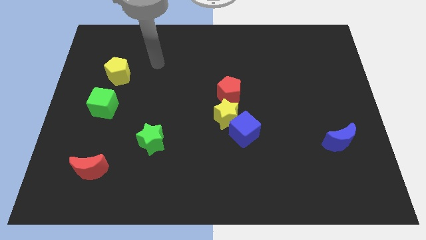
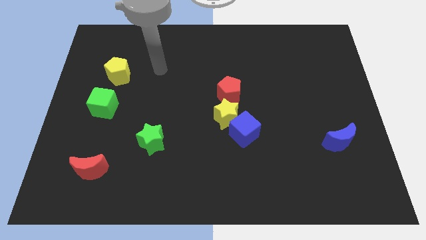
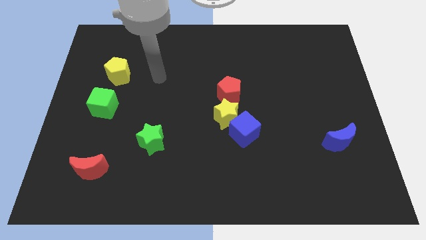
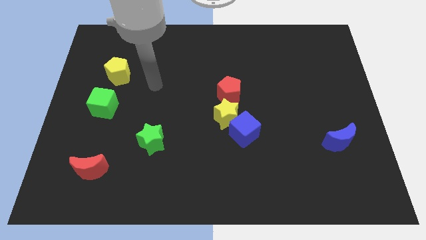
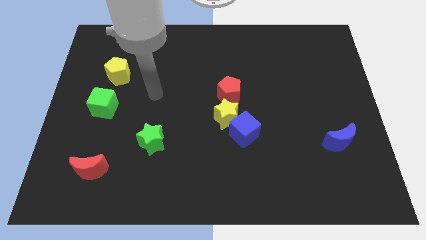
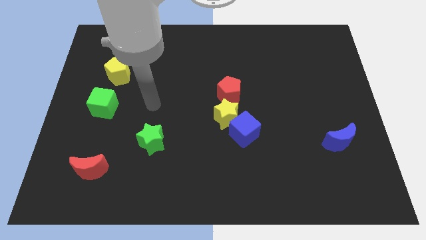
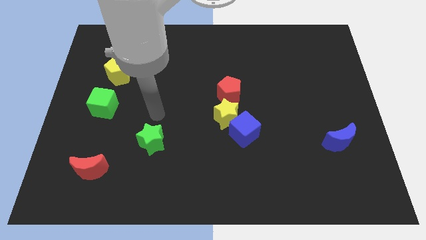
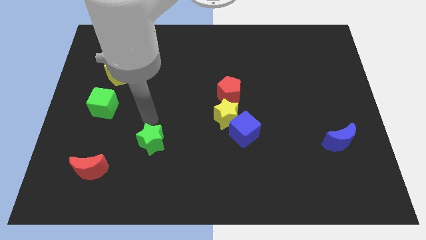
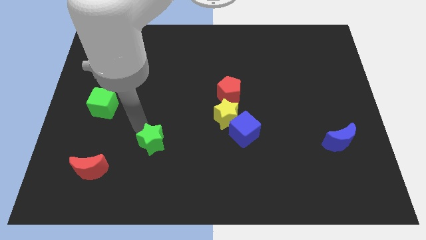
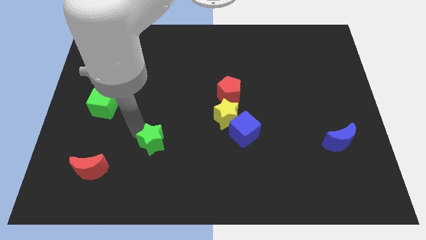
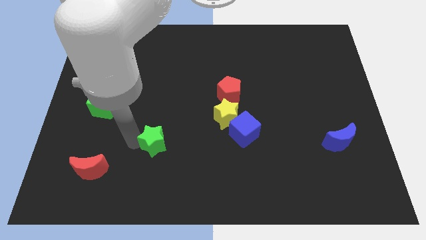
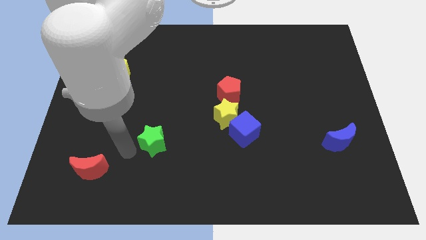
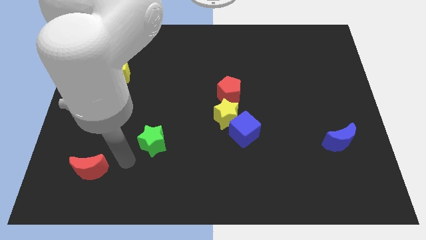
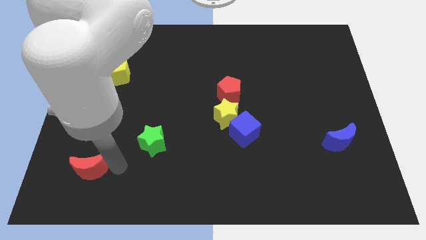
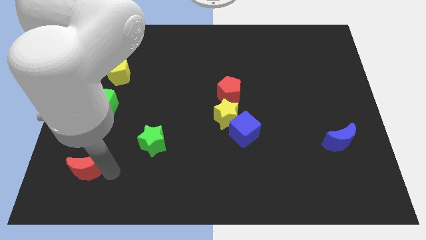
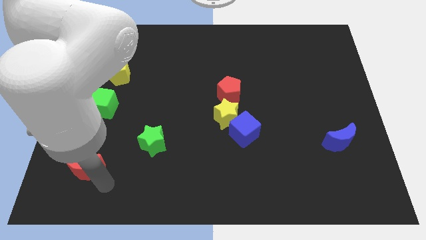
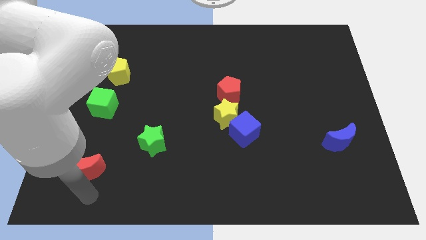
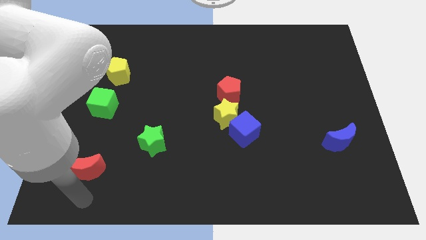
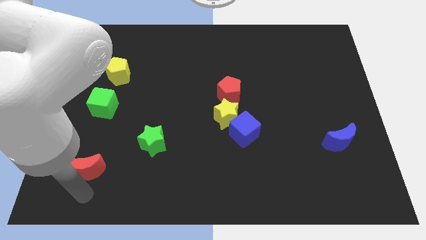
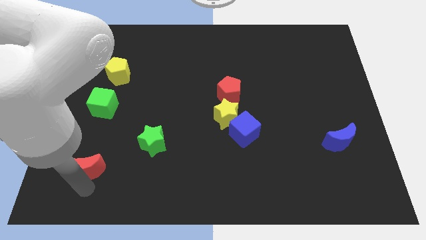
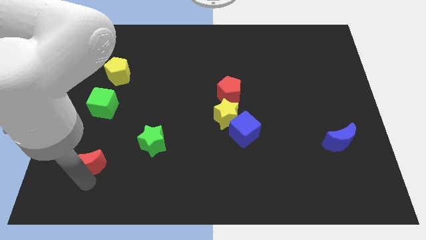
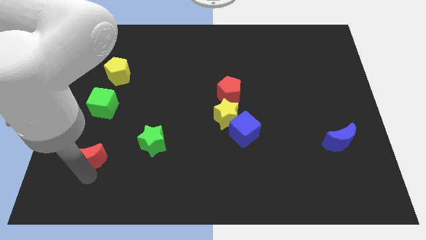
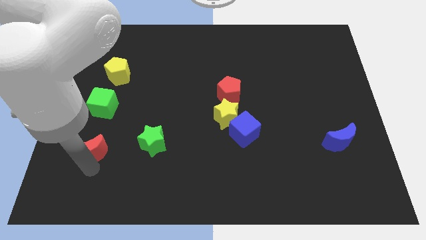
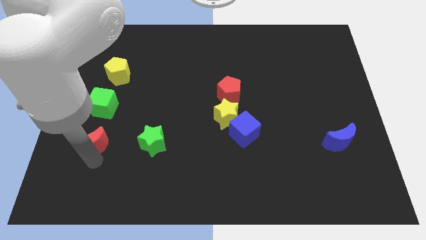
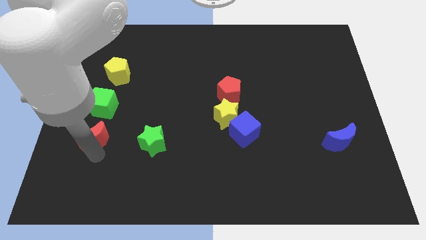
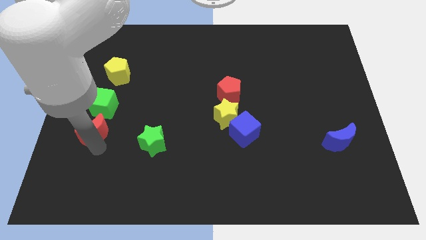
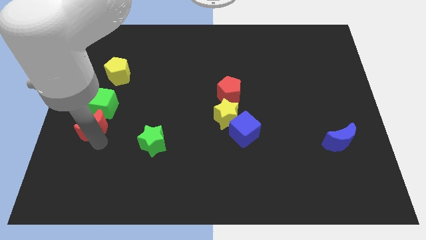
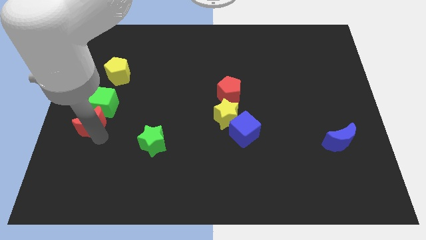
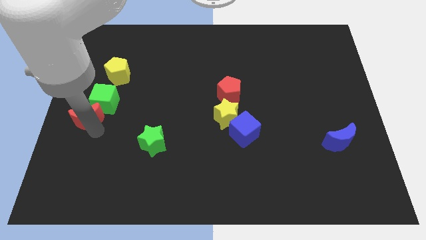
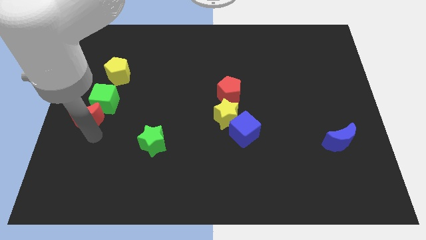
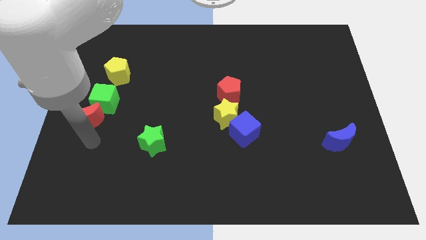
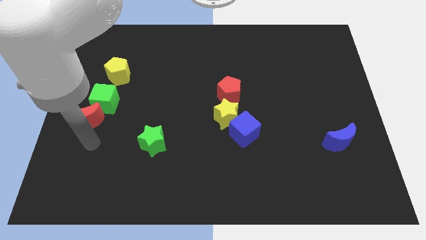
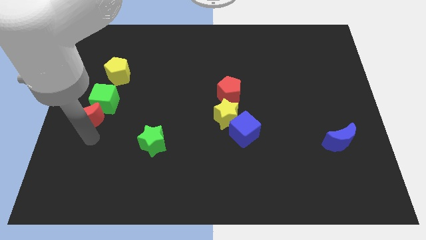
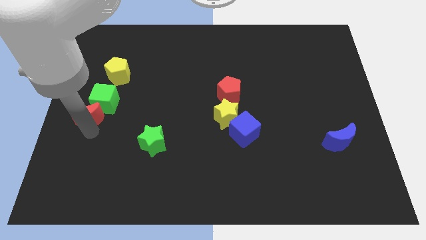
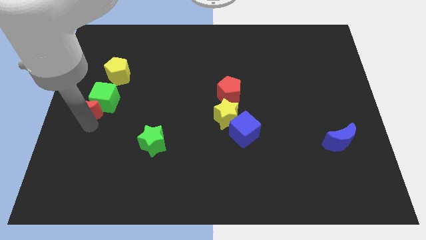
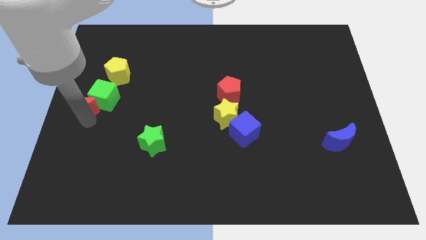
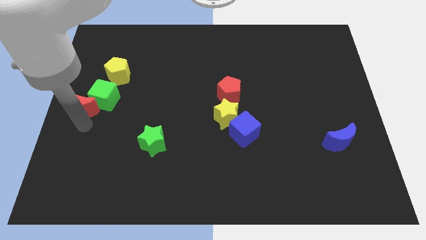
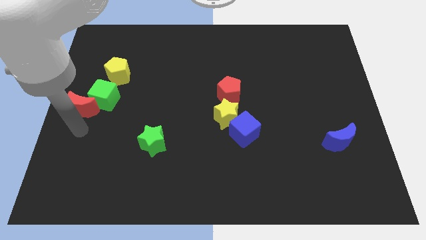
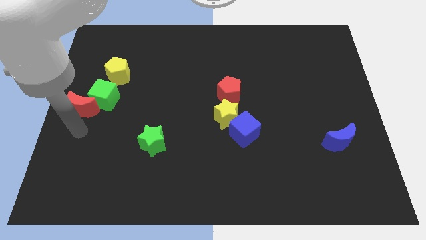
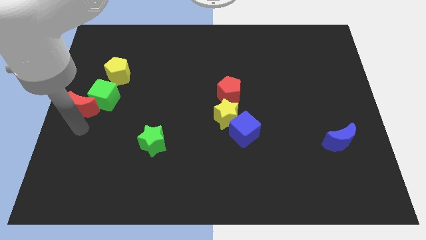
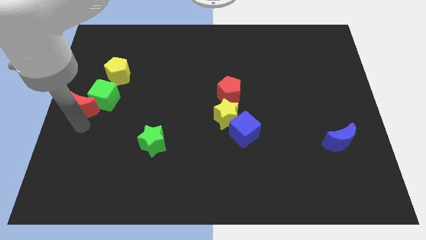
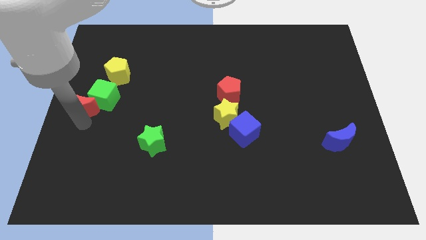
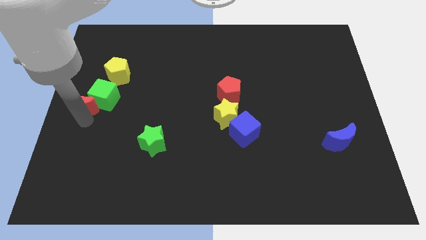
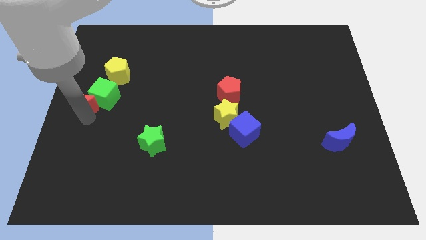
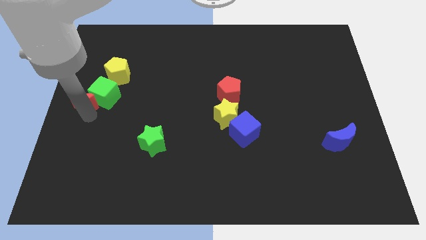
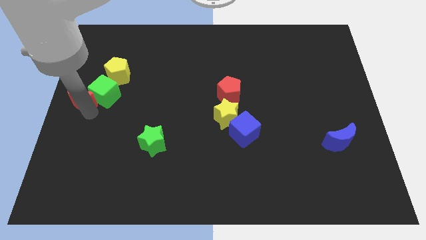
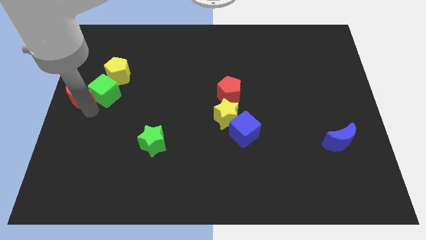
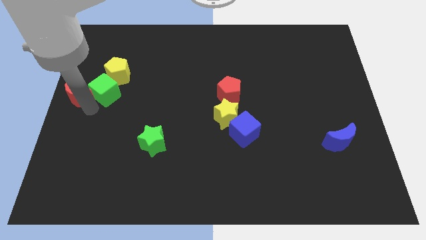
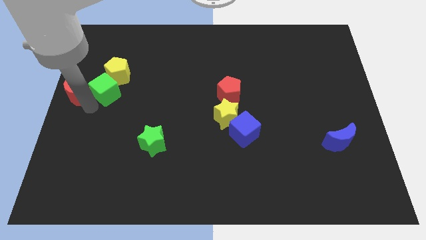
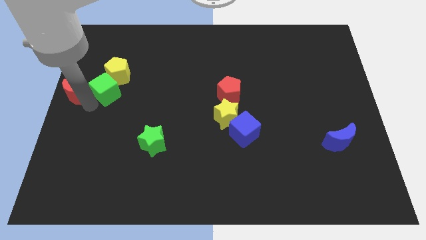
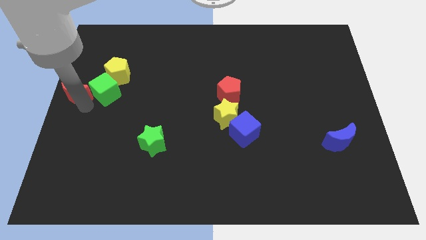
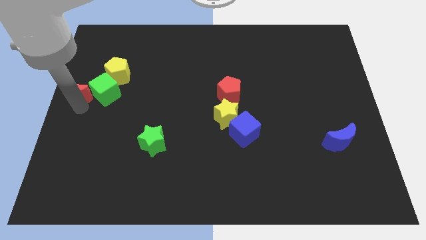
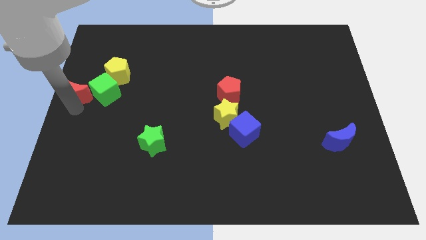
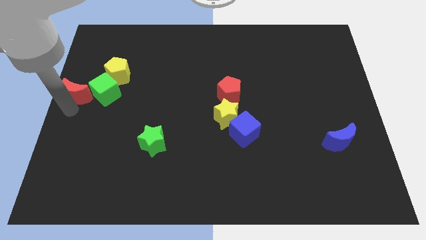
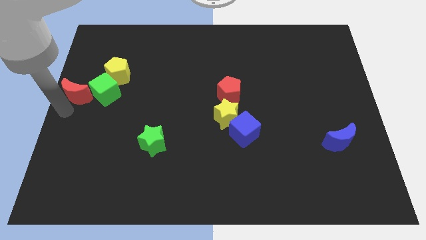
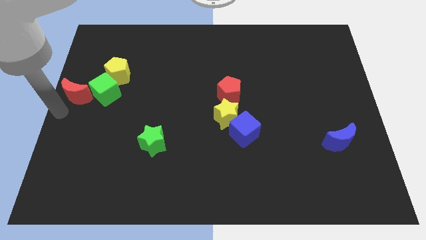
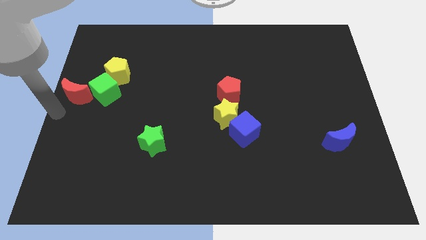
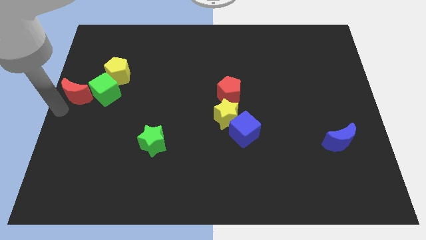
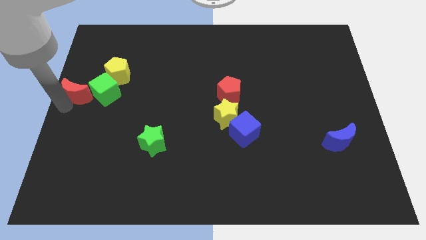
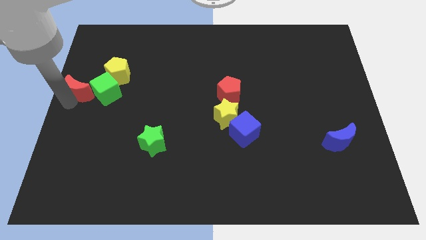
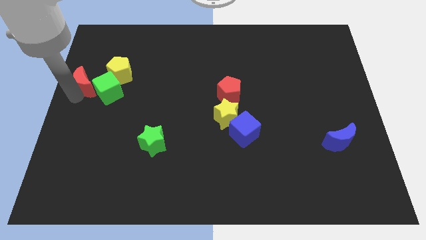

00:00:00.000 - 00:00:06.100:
move the red moon upwards

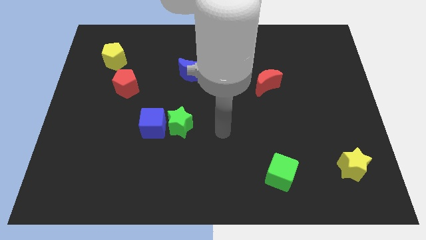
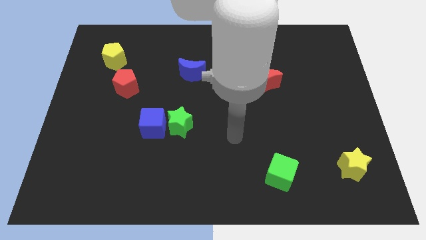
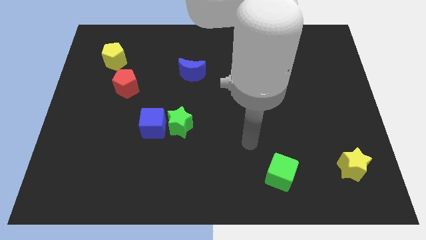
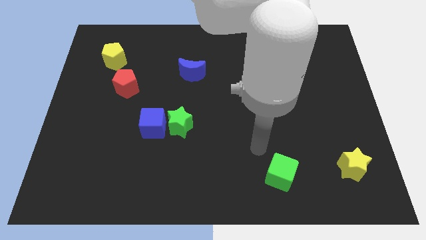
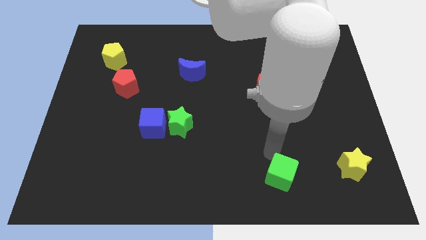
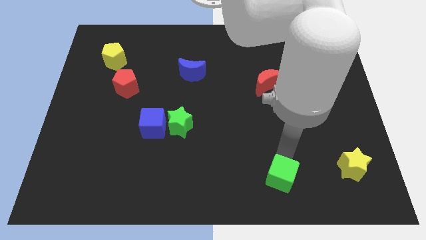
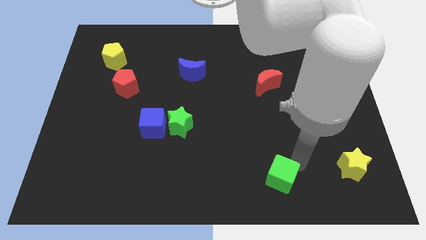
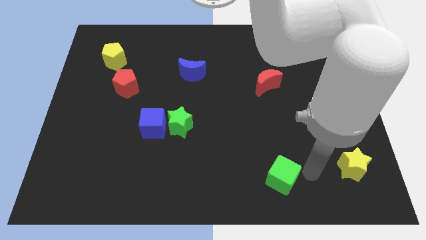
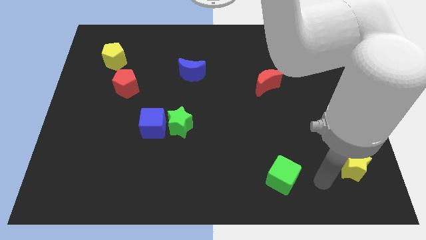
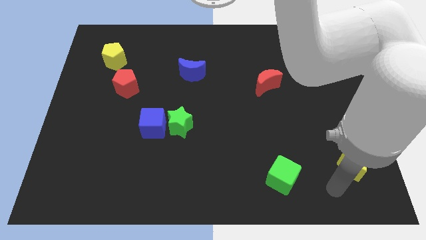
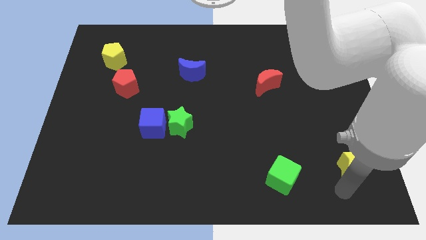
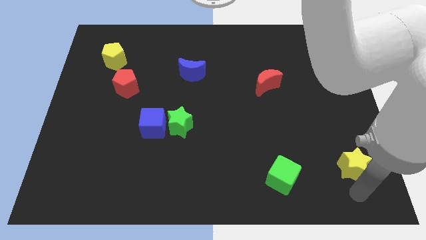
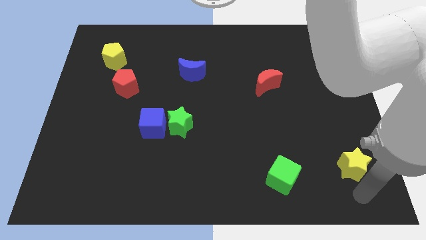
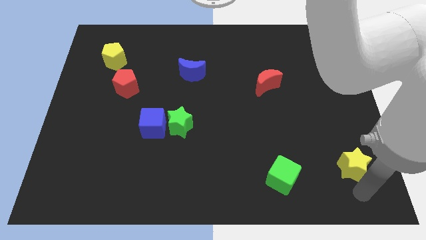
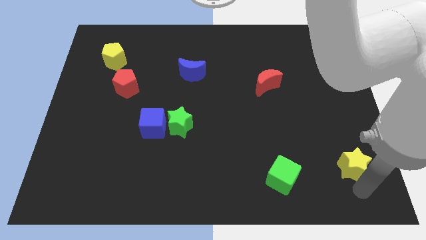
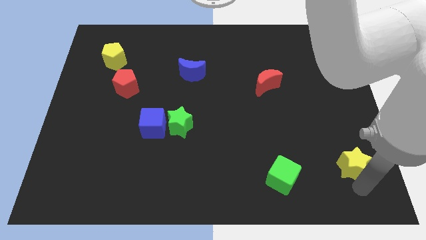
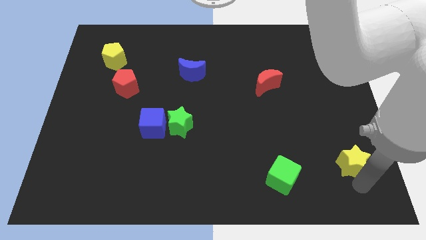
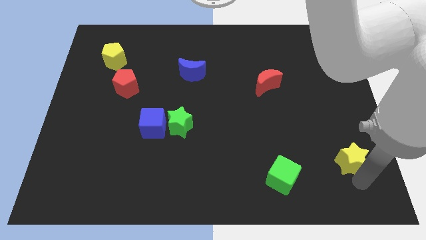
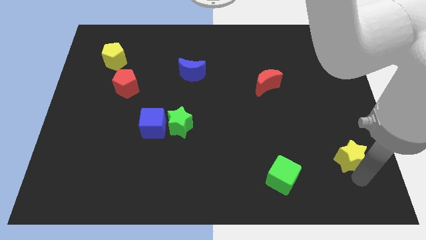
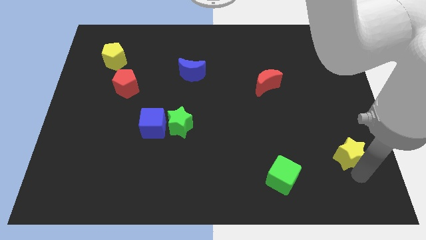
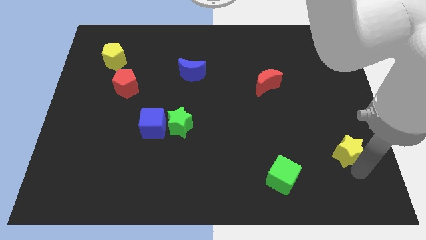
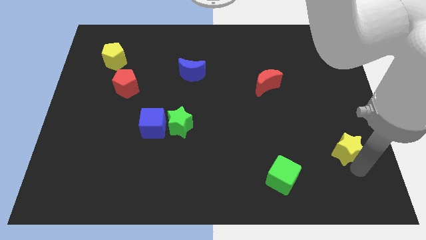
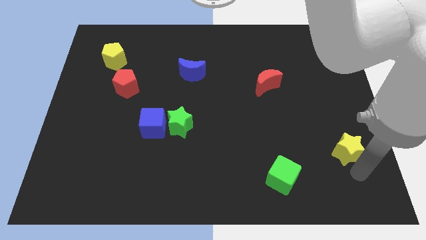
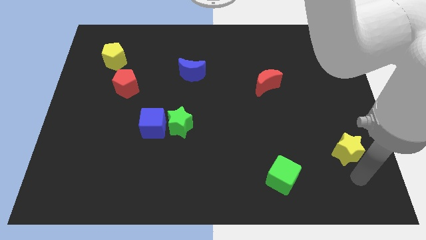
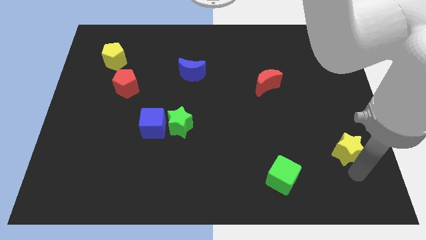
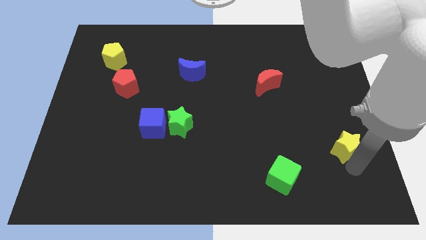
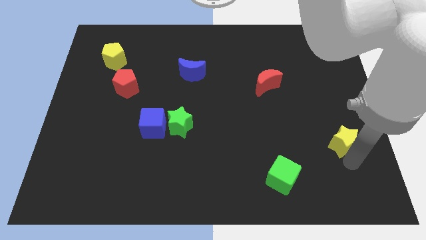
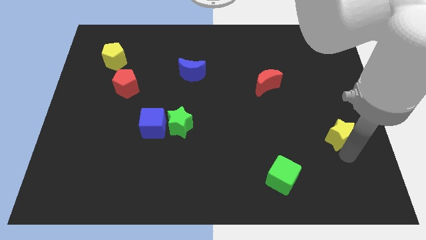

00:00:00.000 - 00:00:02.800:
move the yellow star up slightly
